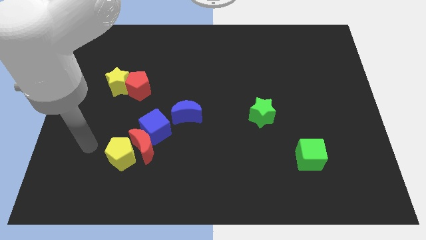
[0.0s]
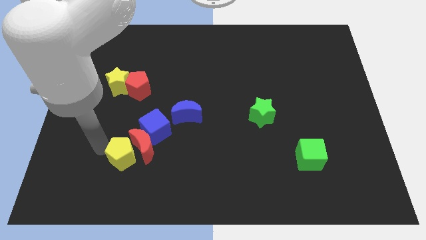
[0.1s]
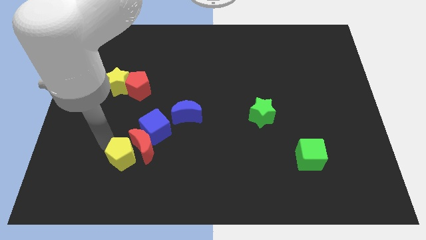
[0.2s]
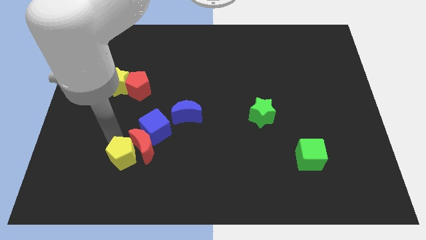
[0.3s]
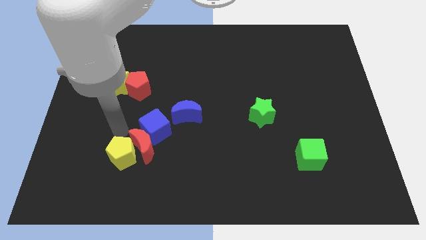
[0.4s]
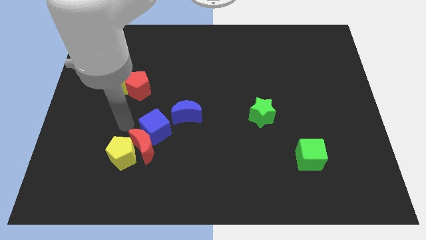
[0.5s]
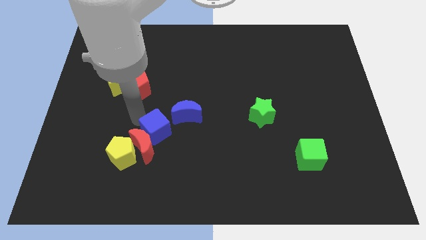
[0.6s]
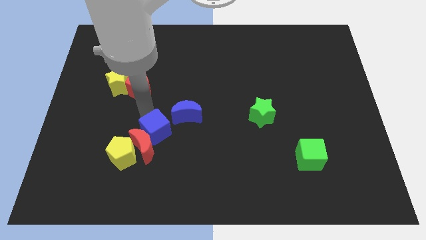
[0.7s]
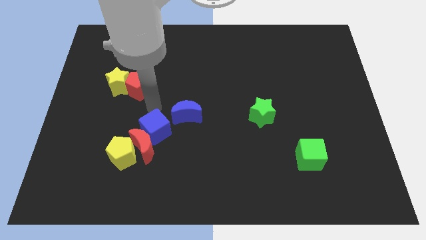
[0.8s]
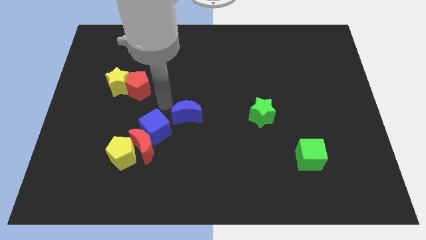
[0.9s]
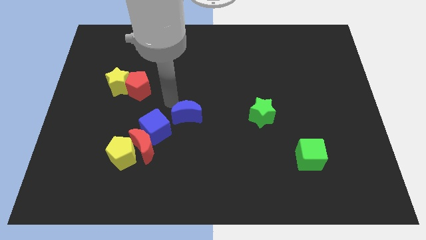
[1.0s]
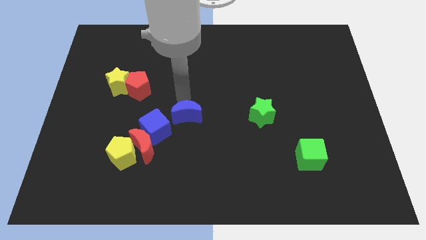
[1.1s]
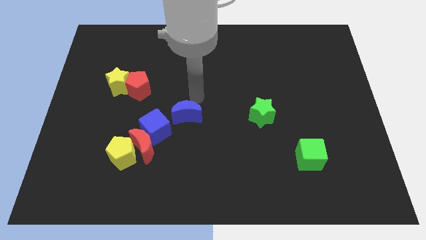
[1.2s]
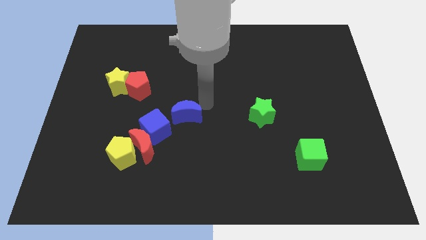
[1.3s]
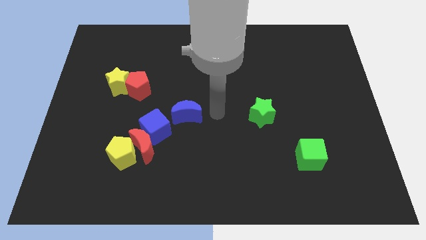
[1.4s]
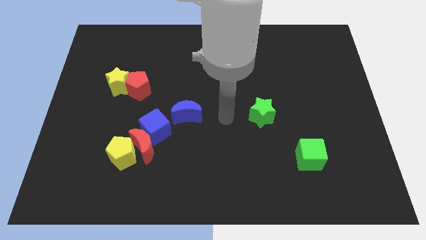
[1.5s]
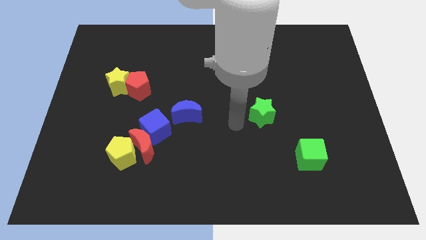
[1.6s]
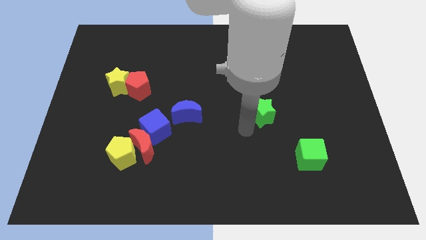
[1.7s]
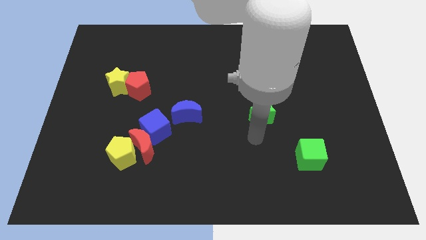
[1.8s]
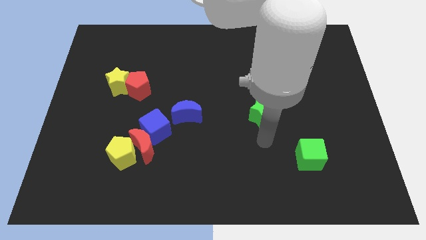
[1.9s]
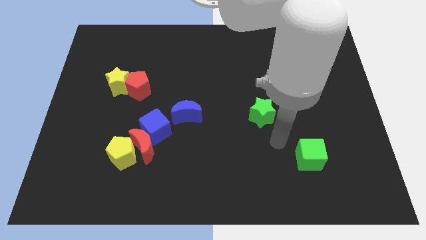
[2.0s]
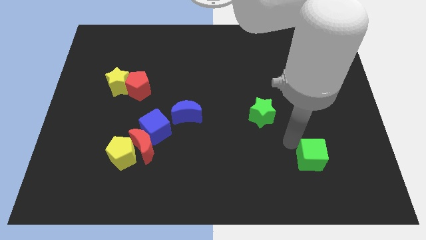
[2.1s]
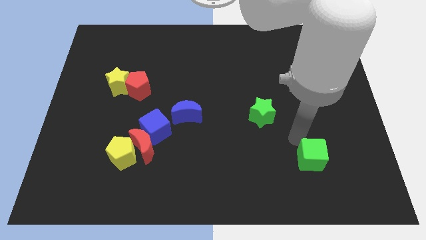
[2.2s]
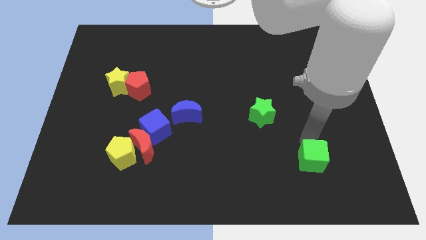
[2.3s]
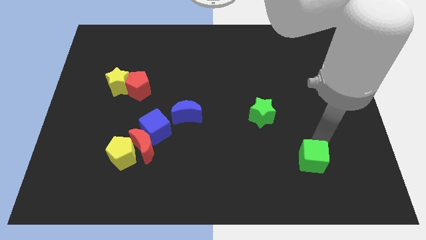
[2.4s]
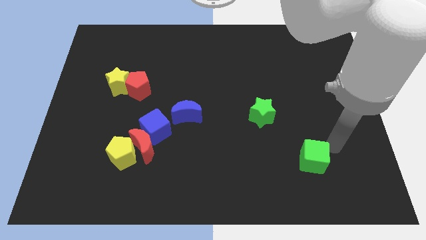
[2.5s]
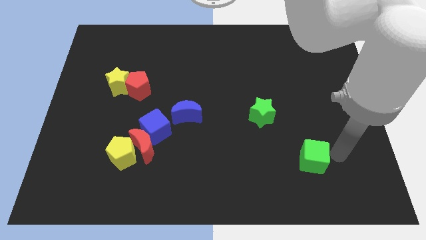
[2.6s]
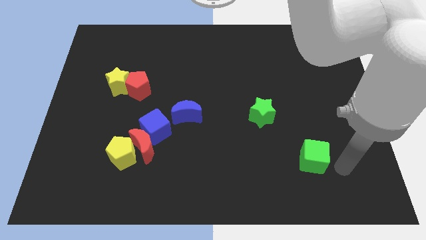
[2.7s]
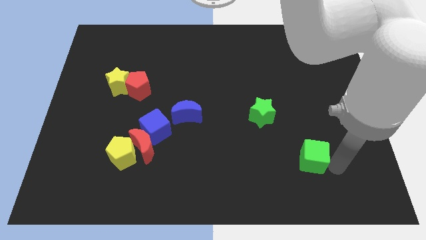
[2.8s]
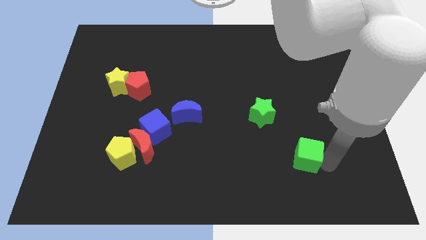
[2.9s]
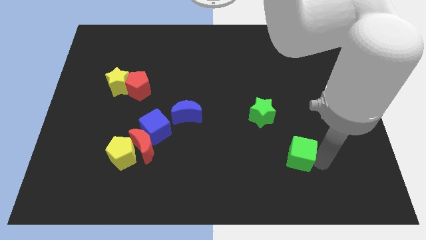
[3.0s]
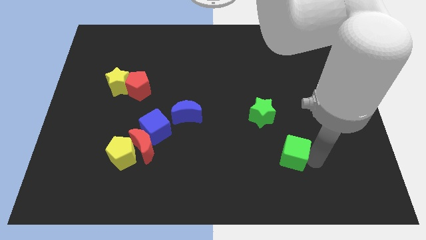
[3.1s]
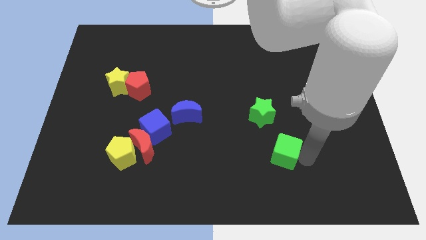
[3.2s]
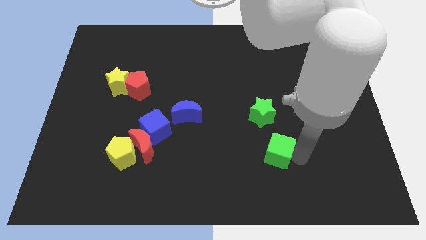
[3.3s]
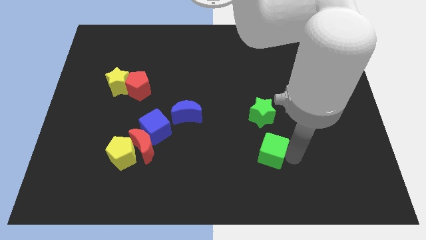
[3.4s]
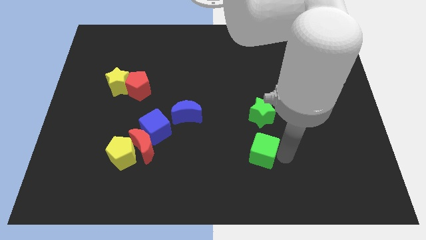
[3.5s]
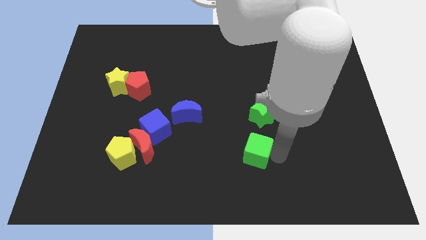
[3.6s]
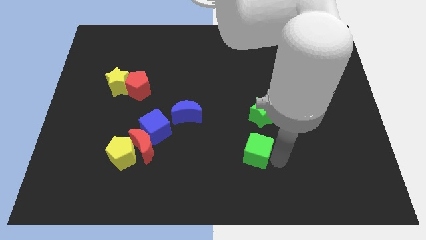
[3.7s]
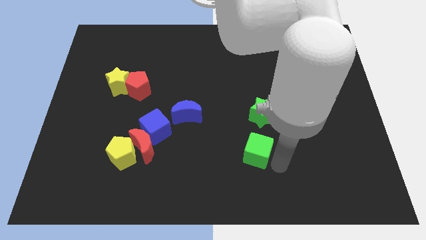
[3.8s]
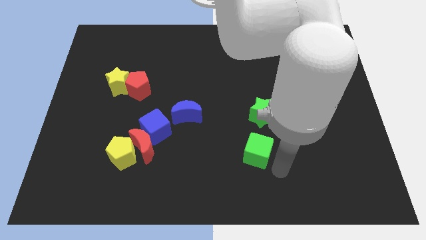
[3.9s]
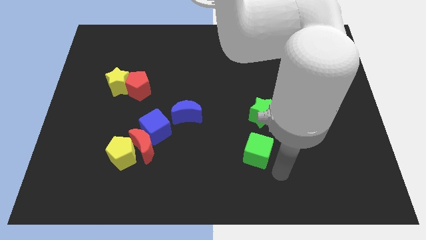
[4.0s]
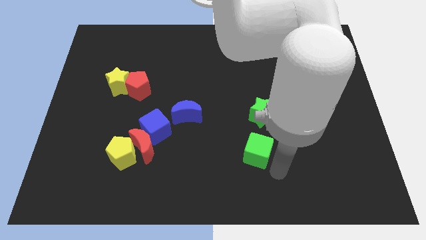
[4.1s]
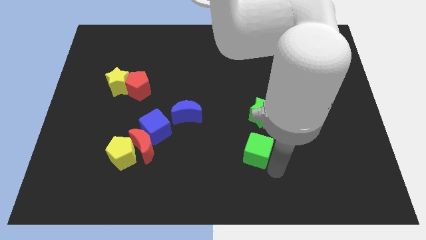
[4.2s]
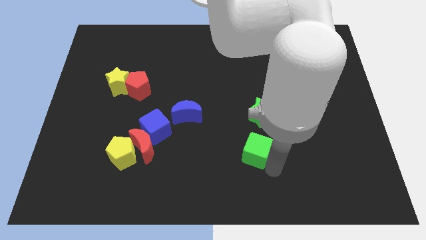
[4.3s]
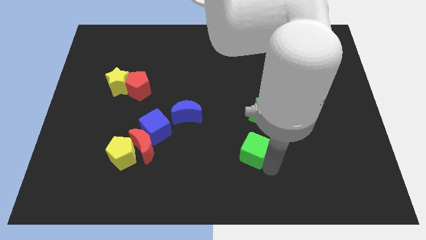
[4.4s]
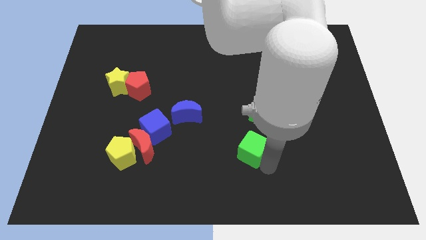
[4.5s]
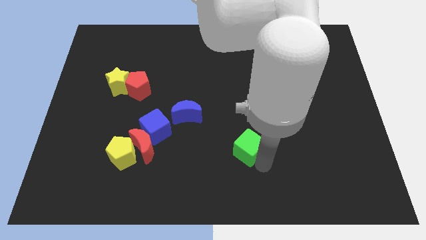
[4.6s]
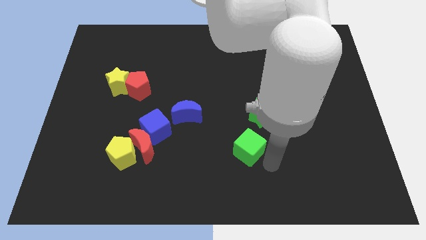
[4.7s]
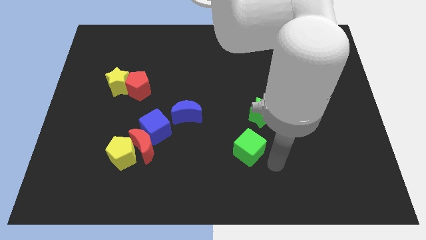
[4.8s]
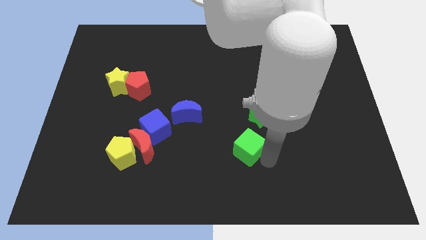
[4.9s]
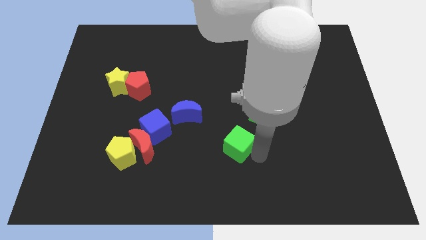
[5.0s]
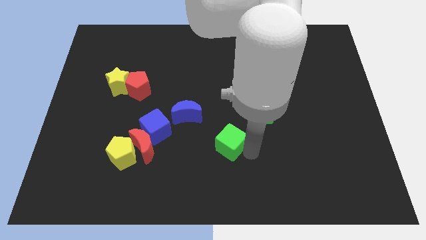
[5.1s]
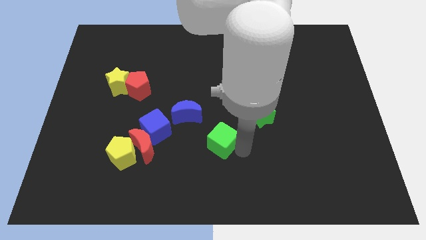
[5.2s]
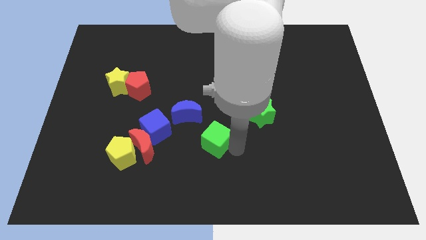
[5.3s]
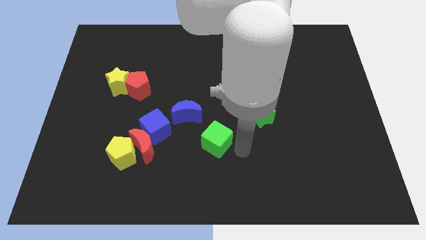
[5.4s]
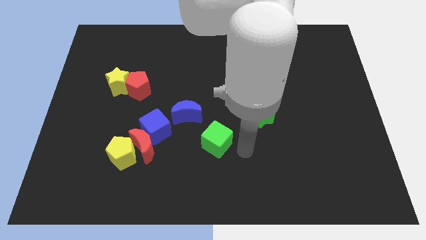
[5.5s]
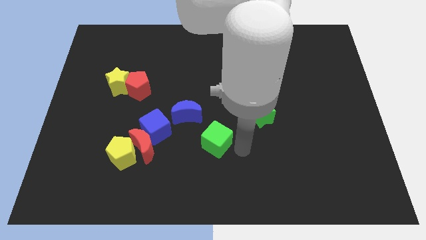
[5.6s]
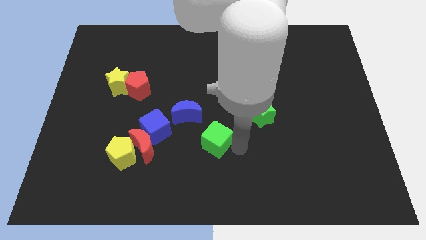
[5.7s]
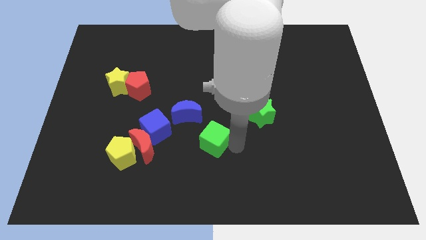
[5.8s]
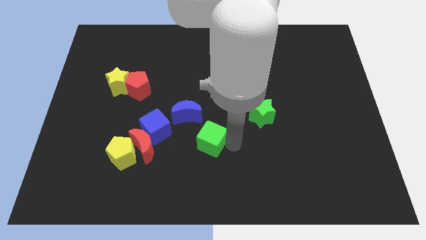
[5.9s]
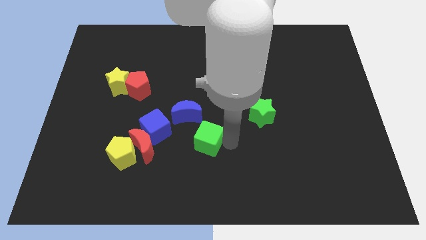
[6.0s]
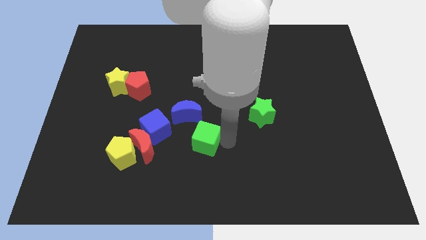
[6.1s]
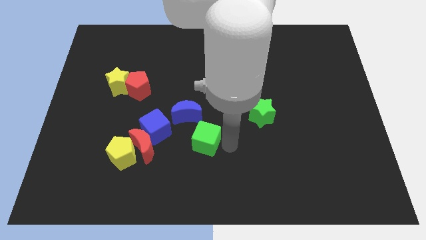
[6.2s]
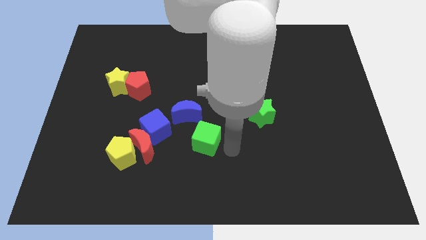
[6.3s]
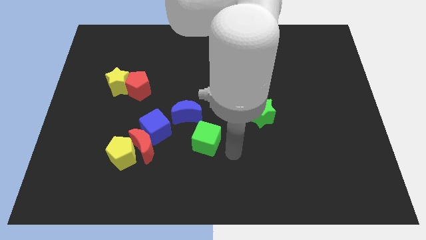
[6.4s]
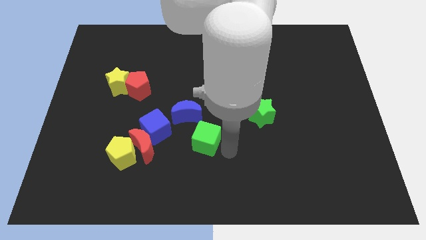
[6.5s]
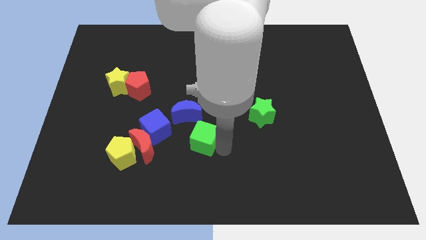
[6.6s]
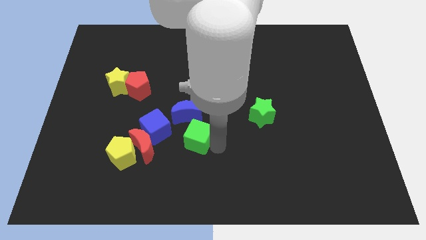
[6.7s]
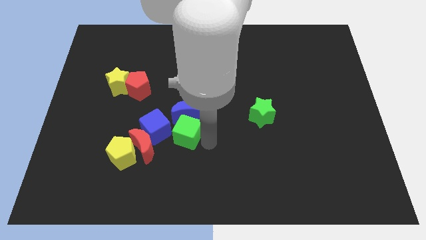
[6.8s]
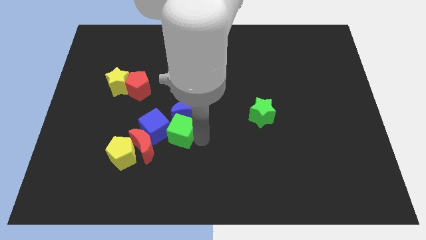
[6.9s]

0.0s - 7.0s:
put the green cube towards the blue cube
